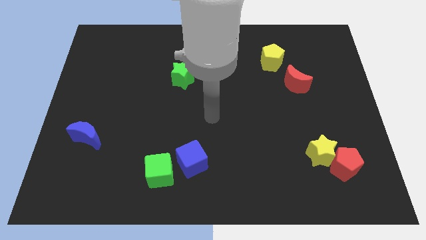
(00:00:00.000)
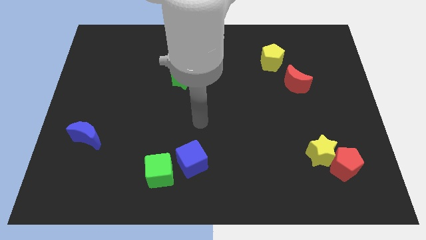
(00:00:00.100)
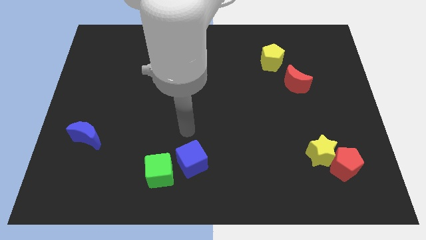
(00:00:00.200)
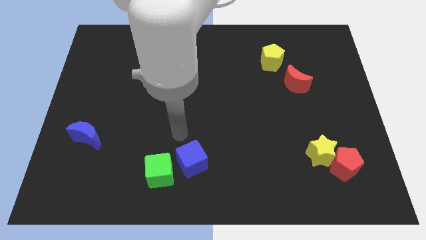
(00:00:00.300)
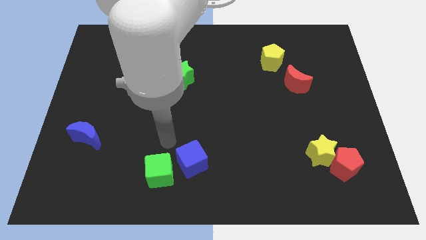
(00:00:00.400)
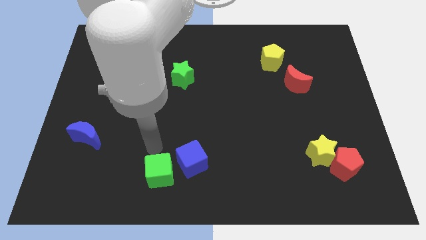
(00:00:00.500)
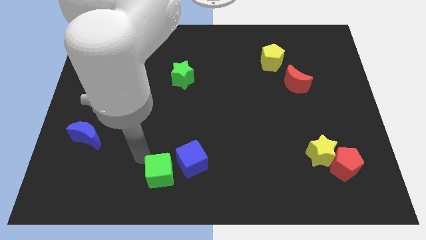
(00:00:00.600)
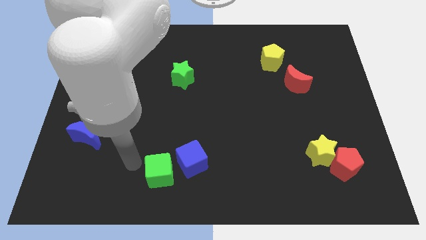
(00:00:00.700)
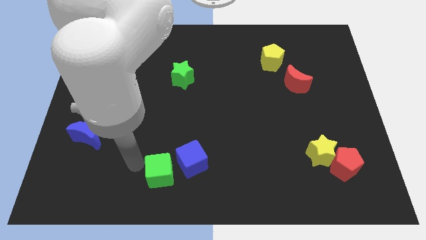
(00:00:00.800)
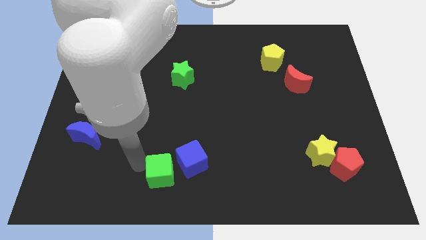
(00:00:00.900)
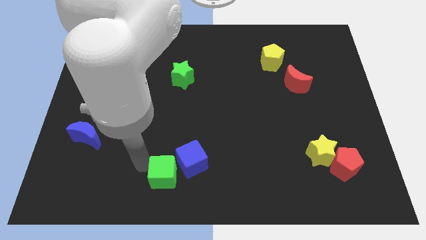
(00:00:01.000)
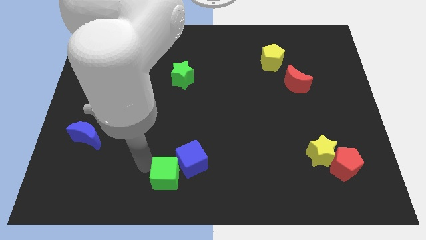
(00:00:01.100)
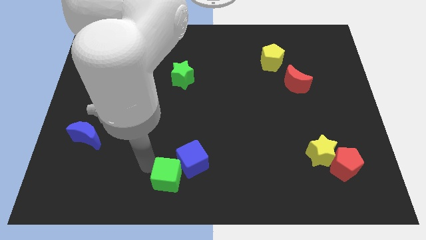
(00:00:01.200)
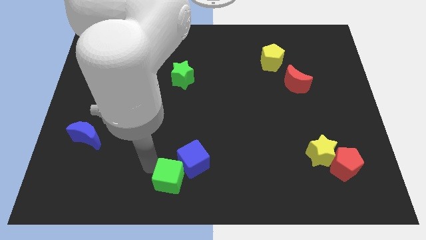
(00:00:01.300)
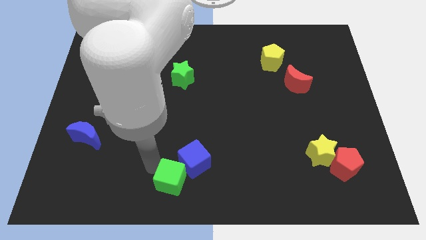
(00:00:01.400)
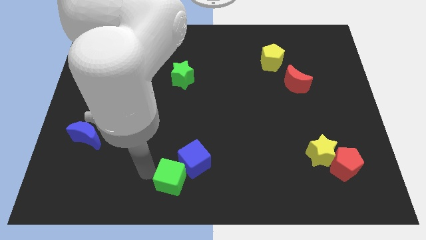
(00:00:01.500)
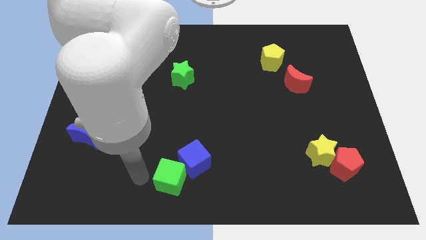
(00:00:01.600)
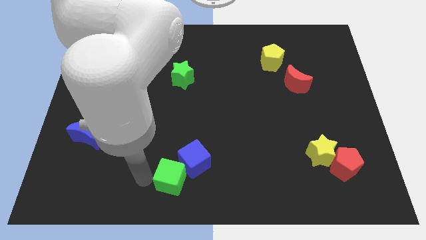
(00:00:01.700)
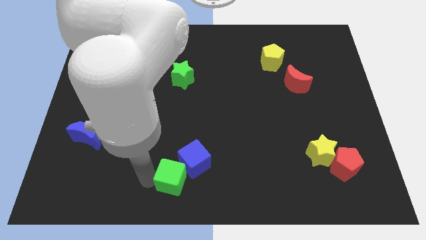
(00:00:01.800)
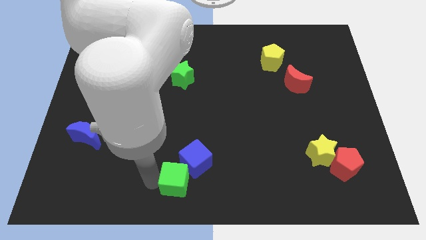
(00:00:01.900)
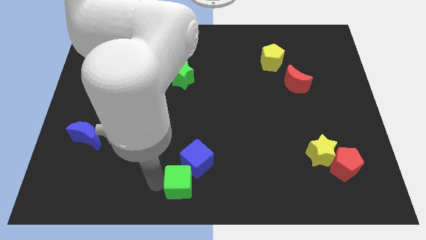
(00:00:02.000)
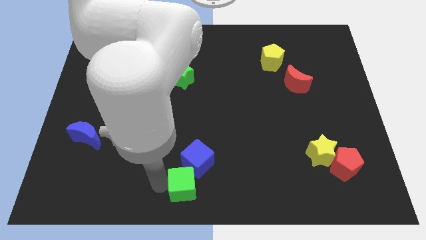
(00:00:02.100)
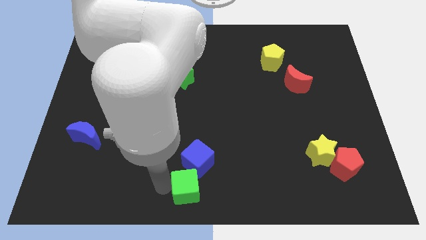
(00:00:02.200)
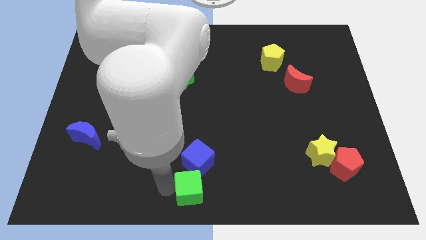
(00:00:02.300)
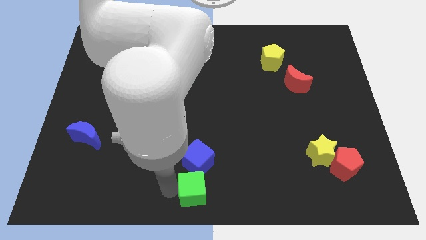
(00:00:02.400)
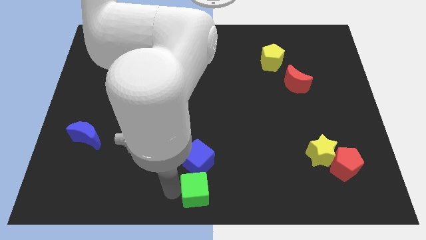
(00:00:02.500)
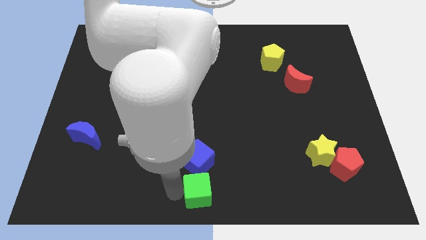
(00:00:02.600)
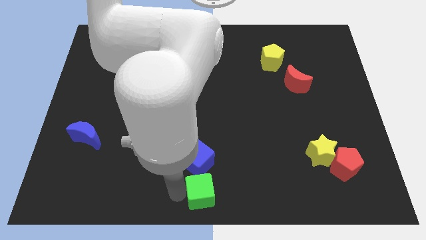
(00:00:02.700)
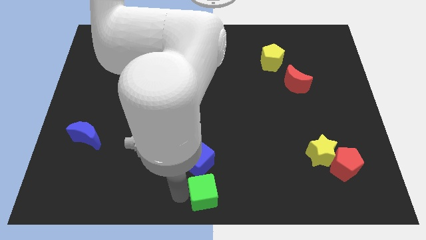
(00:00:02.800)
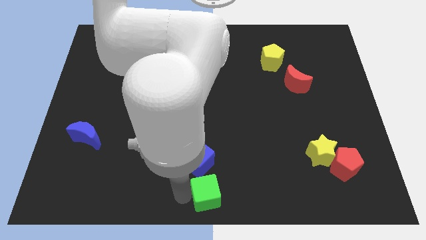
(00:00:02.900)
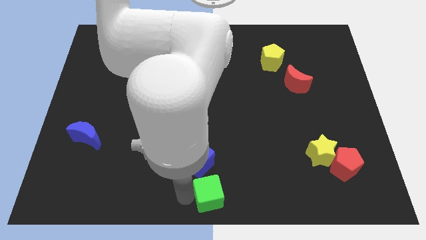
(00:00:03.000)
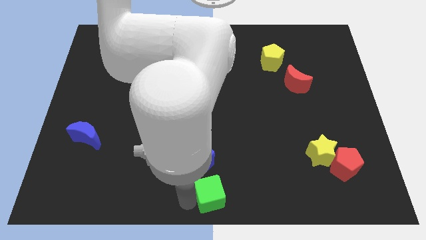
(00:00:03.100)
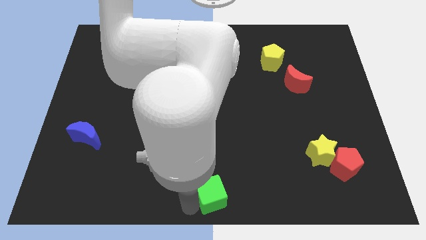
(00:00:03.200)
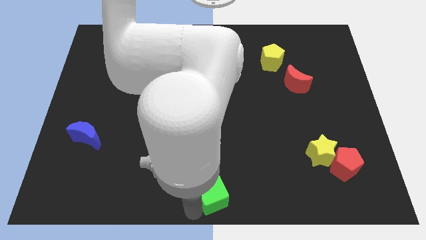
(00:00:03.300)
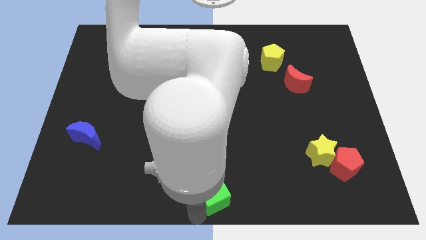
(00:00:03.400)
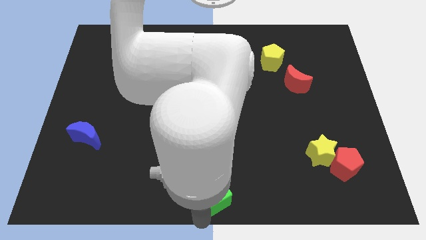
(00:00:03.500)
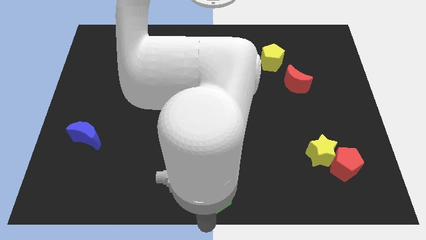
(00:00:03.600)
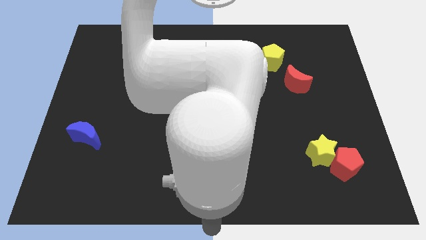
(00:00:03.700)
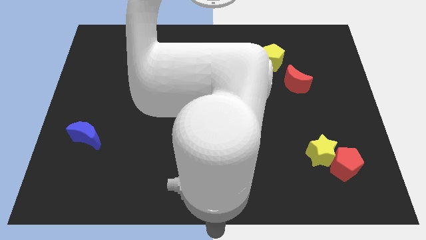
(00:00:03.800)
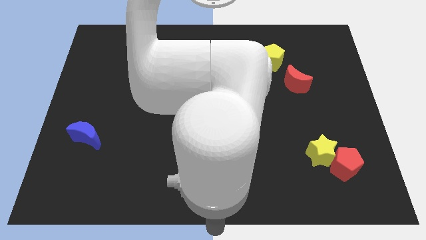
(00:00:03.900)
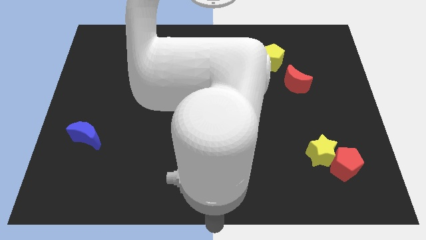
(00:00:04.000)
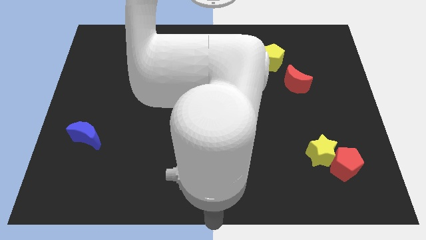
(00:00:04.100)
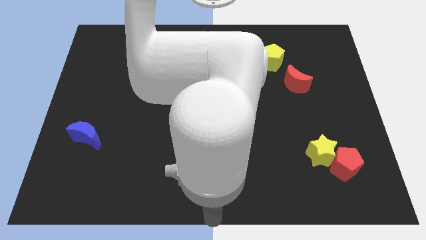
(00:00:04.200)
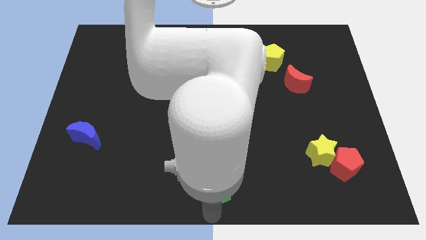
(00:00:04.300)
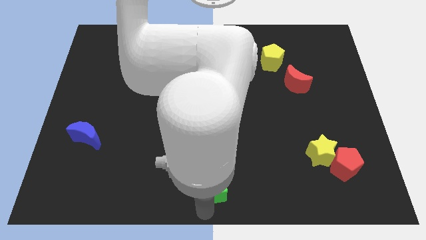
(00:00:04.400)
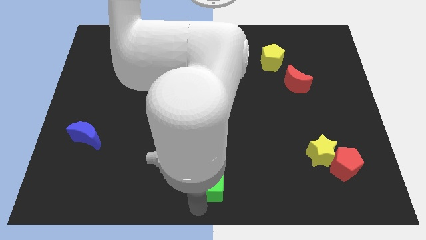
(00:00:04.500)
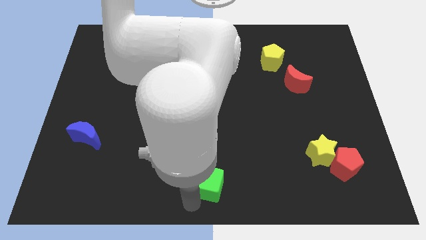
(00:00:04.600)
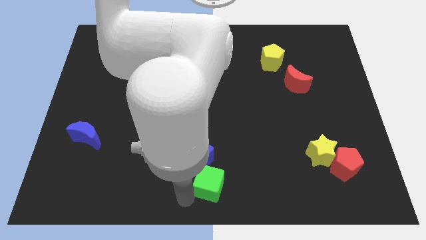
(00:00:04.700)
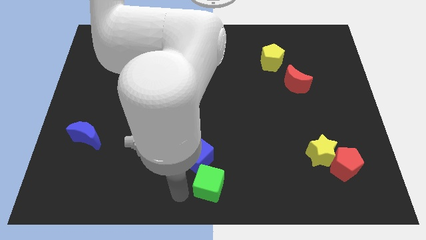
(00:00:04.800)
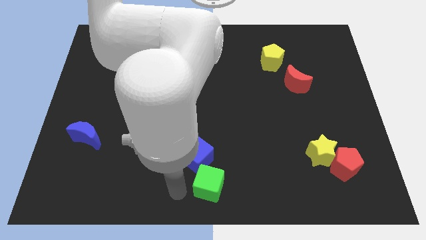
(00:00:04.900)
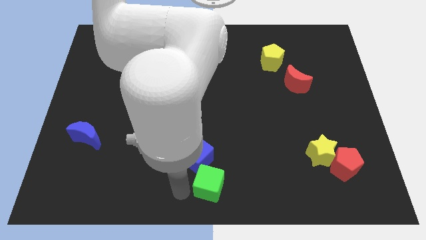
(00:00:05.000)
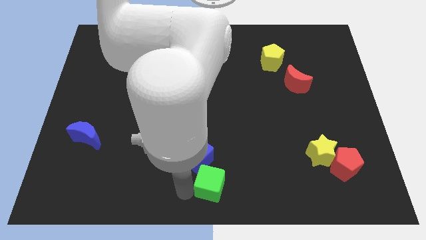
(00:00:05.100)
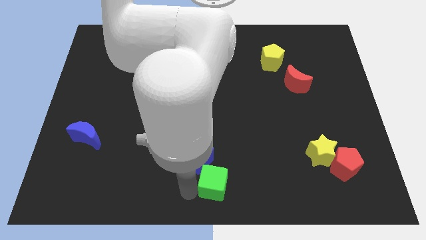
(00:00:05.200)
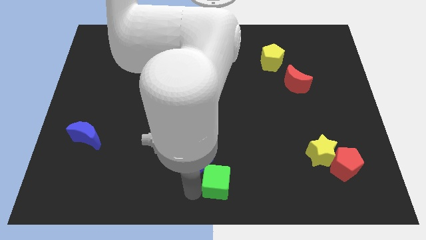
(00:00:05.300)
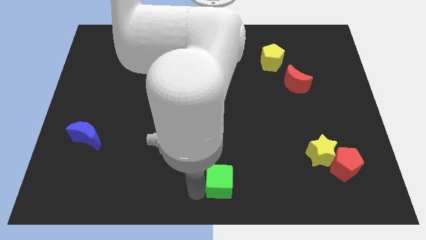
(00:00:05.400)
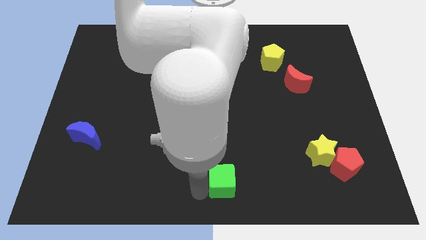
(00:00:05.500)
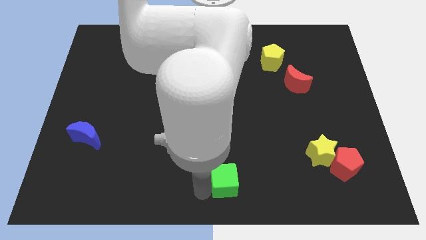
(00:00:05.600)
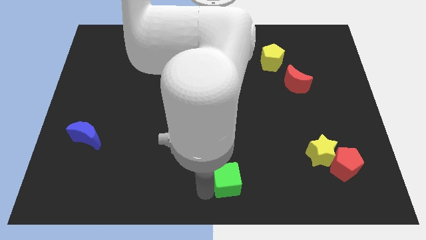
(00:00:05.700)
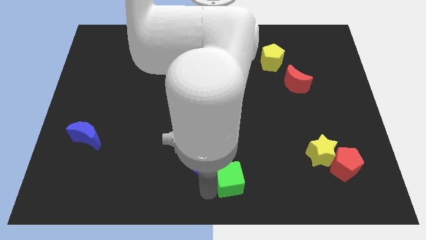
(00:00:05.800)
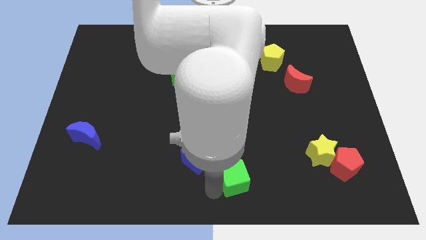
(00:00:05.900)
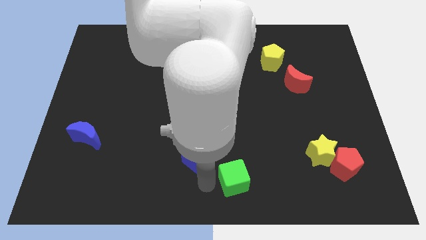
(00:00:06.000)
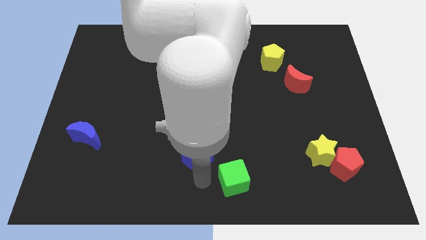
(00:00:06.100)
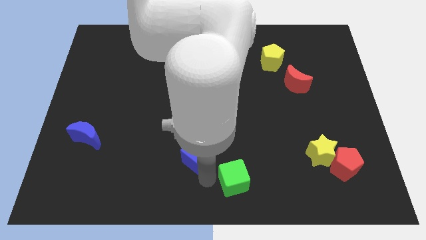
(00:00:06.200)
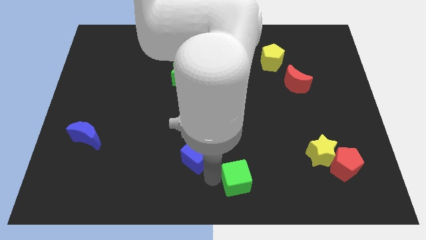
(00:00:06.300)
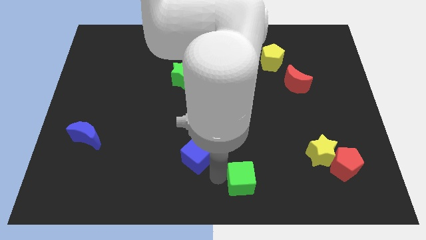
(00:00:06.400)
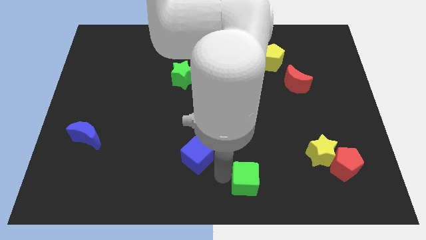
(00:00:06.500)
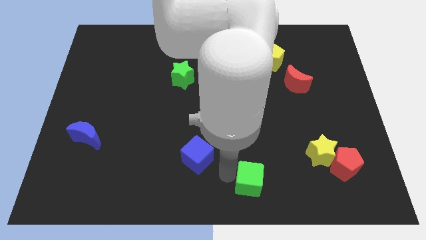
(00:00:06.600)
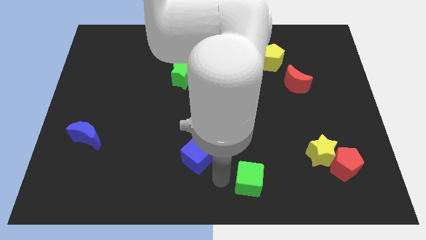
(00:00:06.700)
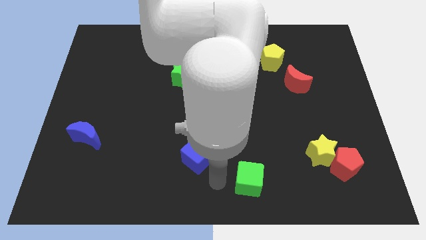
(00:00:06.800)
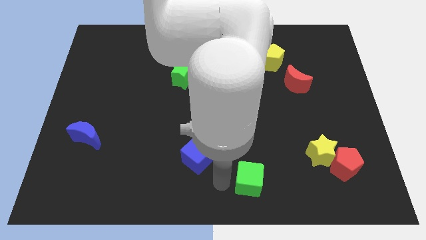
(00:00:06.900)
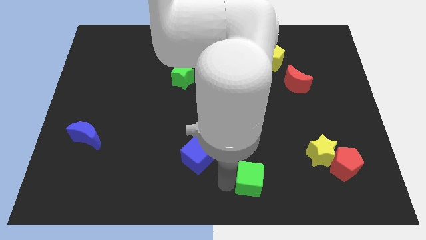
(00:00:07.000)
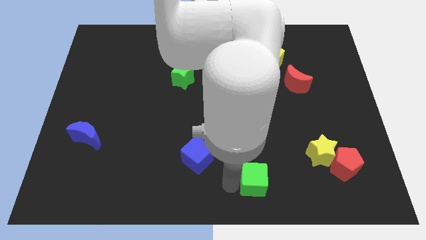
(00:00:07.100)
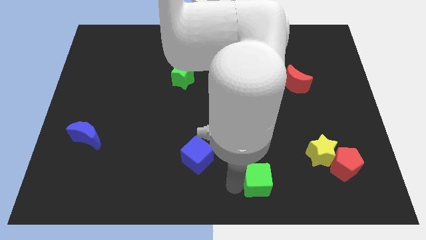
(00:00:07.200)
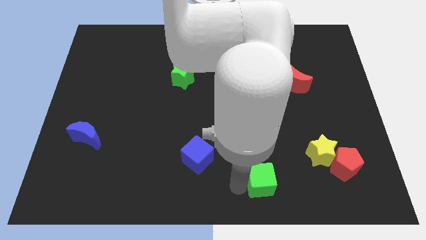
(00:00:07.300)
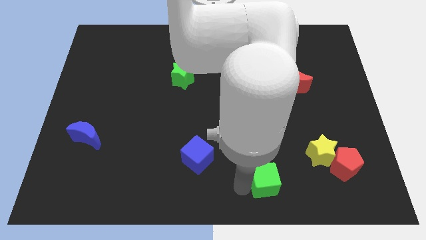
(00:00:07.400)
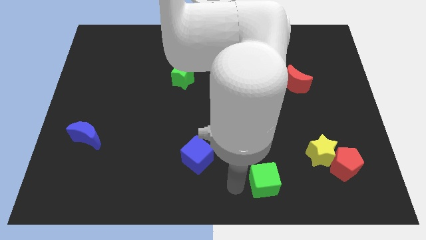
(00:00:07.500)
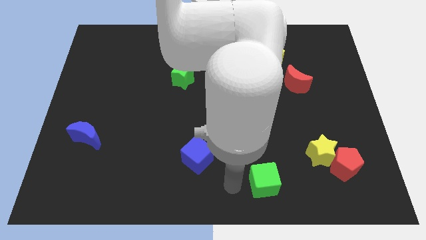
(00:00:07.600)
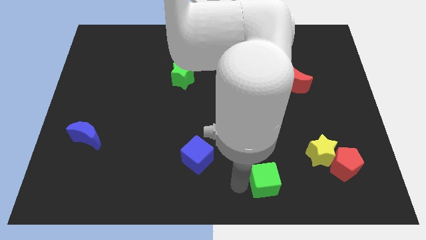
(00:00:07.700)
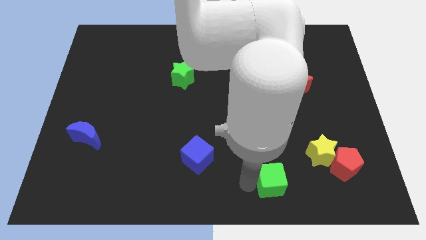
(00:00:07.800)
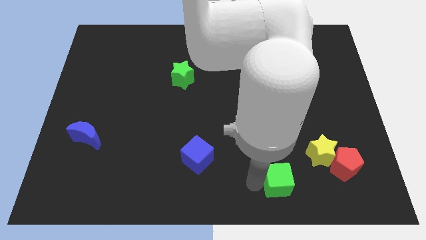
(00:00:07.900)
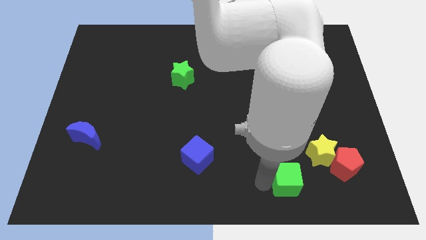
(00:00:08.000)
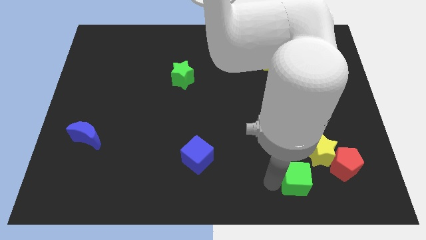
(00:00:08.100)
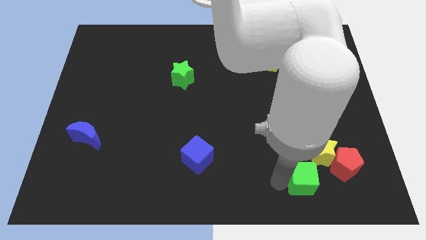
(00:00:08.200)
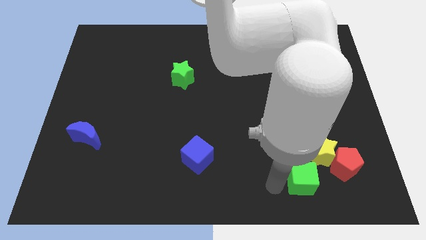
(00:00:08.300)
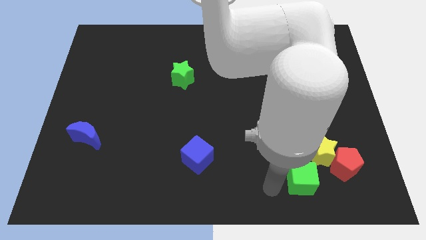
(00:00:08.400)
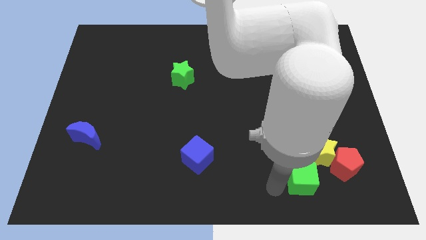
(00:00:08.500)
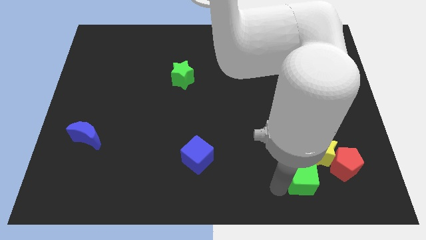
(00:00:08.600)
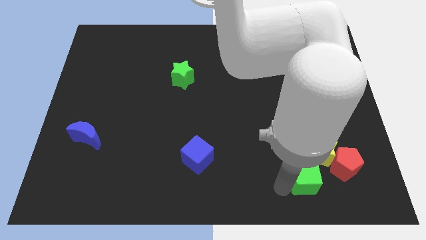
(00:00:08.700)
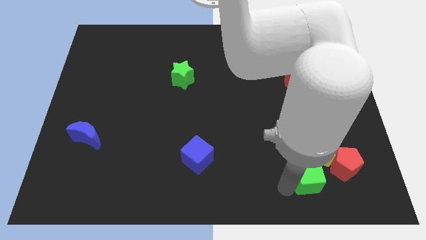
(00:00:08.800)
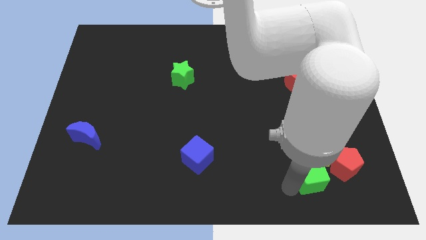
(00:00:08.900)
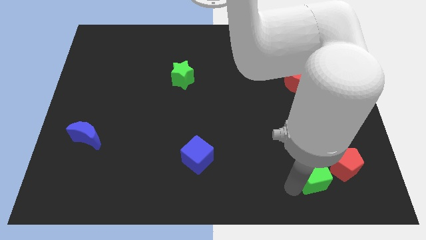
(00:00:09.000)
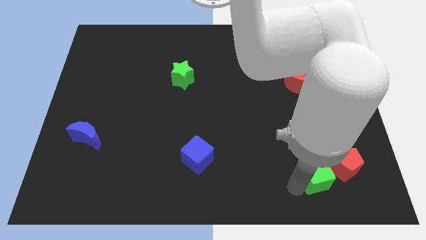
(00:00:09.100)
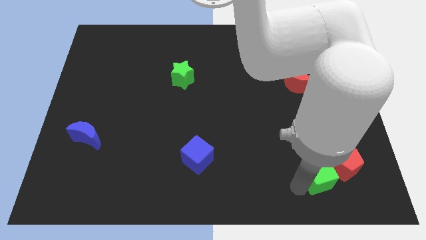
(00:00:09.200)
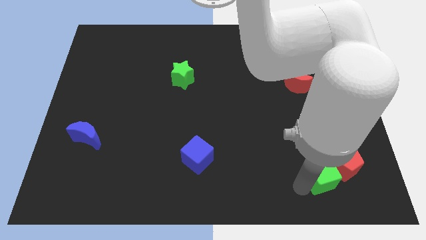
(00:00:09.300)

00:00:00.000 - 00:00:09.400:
put the green cube to the red pentagon
